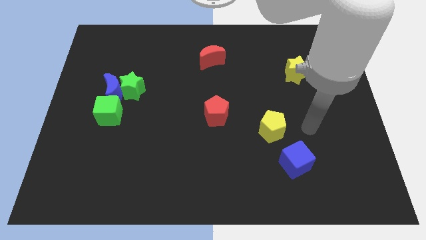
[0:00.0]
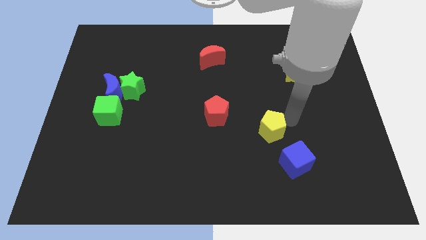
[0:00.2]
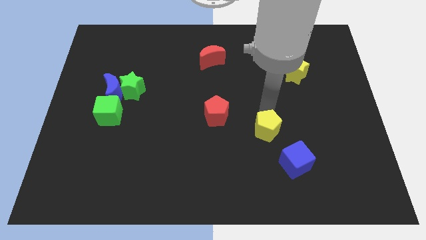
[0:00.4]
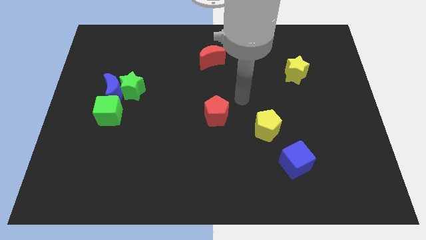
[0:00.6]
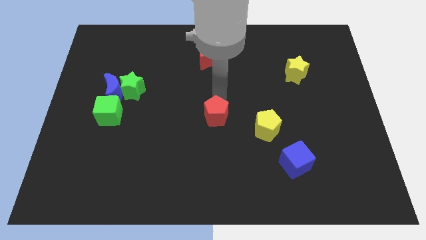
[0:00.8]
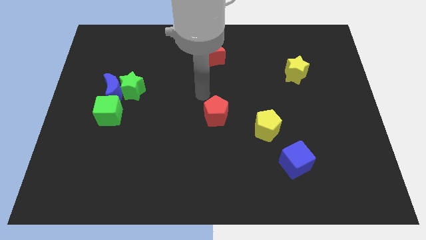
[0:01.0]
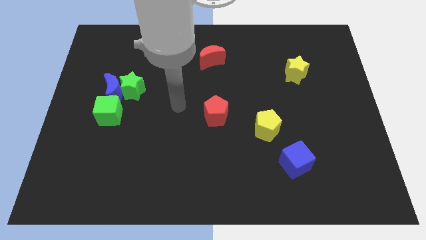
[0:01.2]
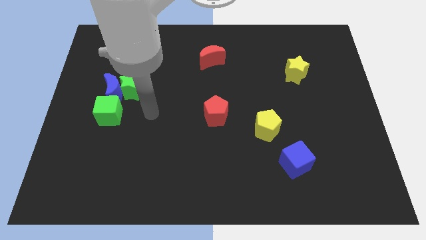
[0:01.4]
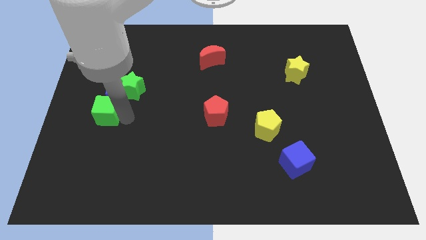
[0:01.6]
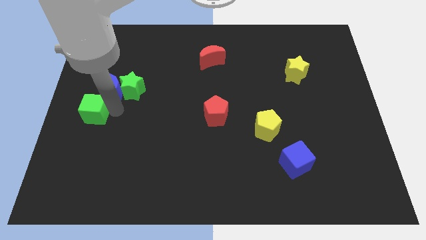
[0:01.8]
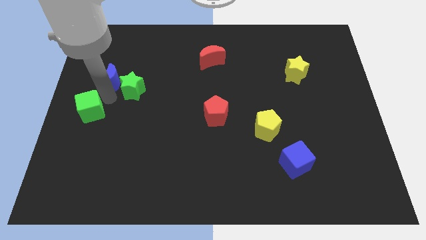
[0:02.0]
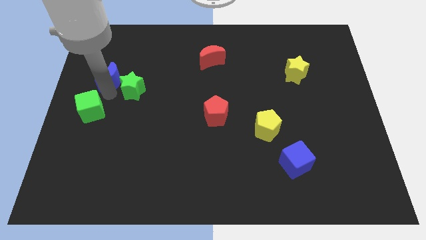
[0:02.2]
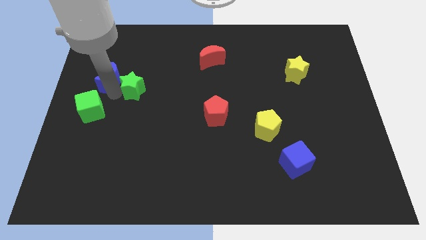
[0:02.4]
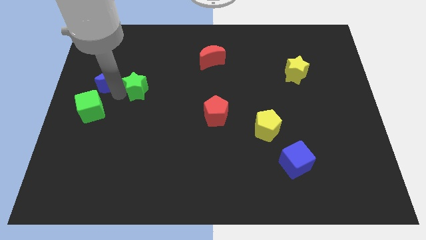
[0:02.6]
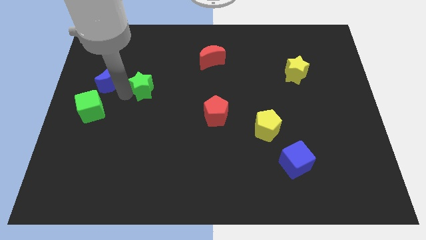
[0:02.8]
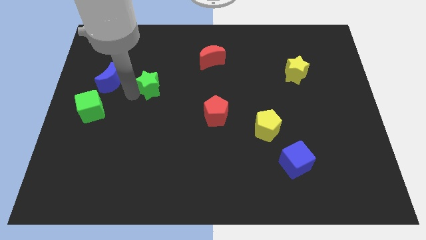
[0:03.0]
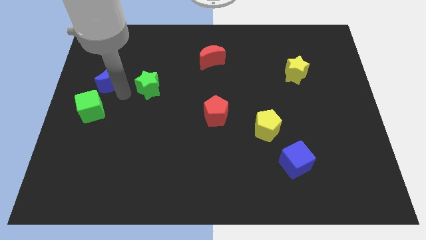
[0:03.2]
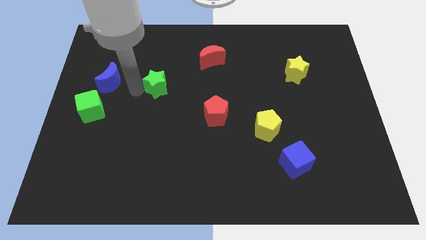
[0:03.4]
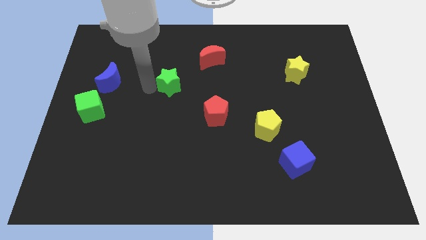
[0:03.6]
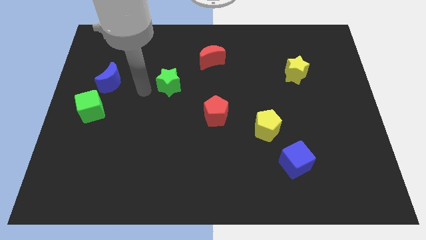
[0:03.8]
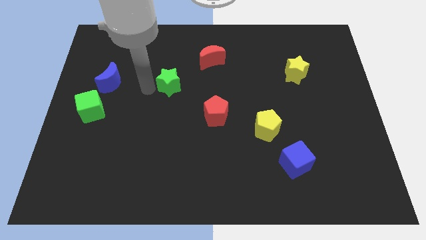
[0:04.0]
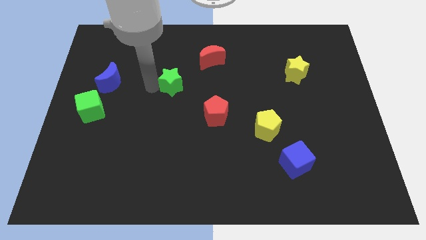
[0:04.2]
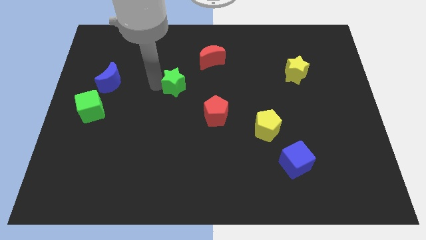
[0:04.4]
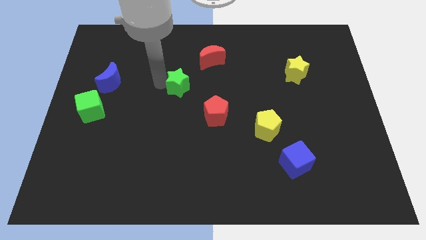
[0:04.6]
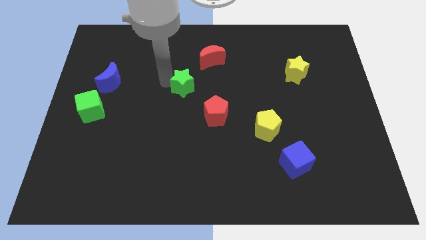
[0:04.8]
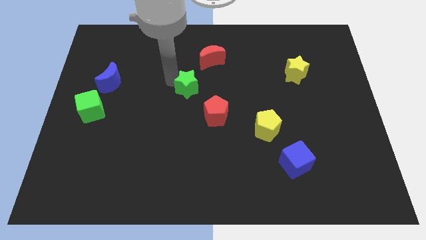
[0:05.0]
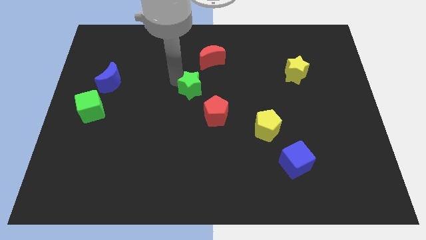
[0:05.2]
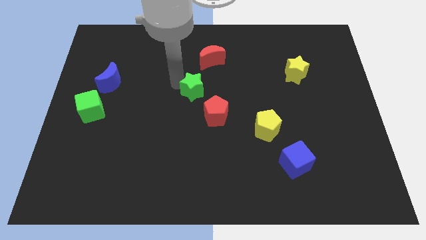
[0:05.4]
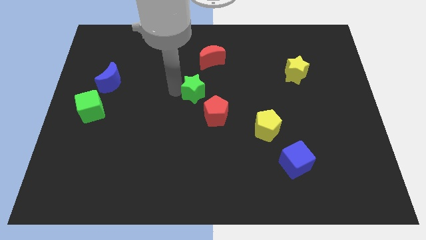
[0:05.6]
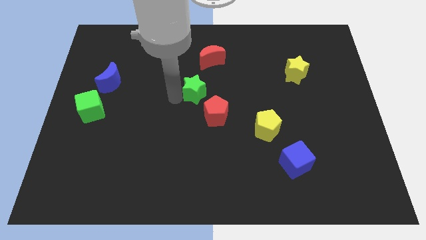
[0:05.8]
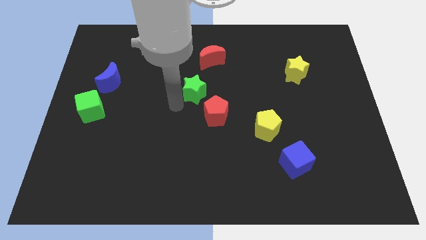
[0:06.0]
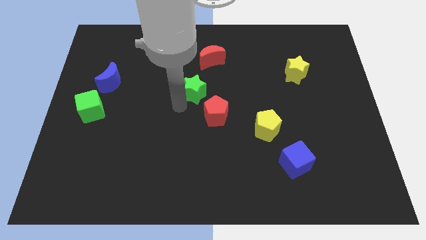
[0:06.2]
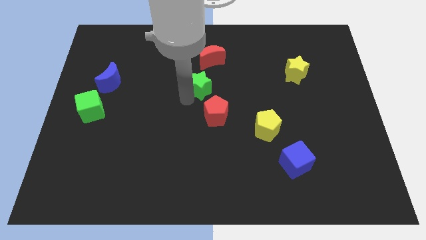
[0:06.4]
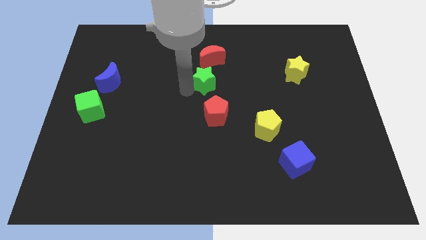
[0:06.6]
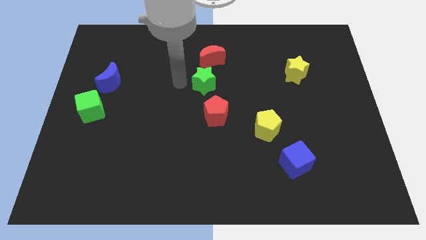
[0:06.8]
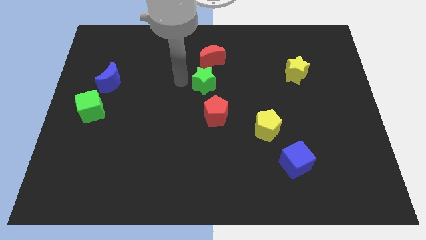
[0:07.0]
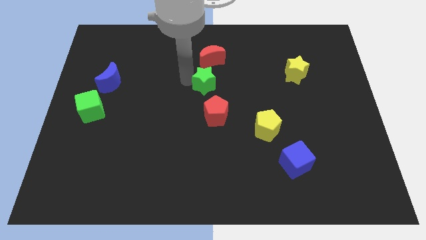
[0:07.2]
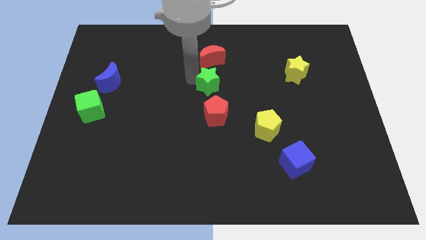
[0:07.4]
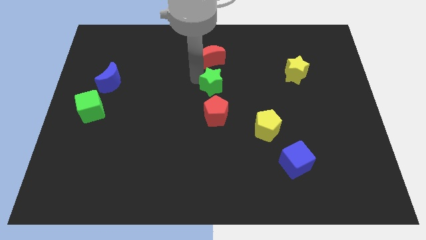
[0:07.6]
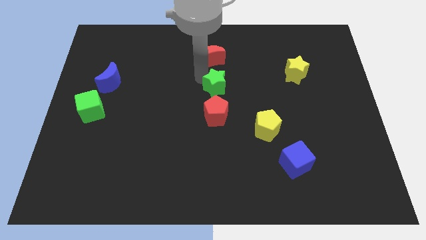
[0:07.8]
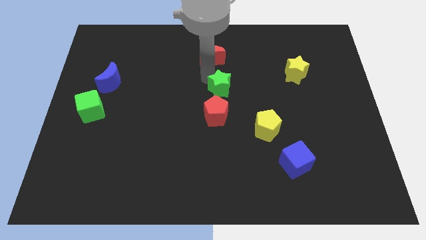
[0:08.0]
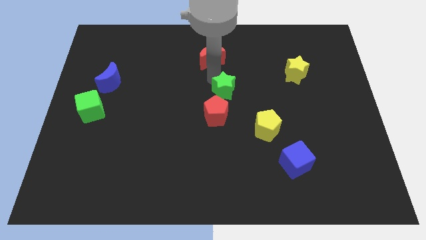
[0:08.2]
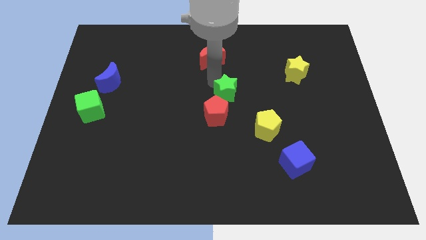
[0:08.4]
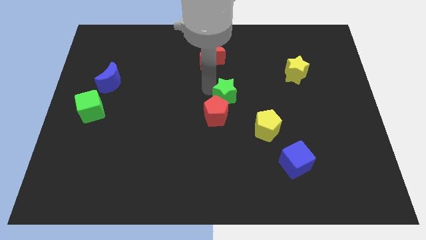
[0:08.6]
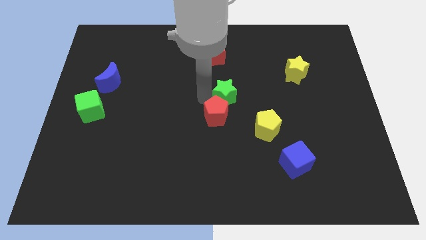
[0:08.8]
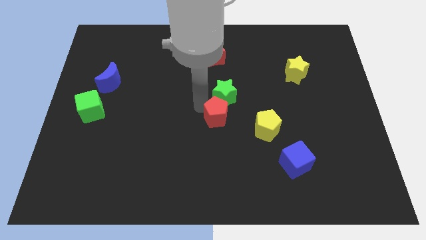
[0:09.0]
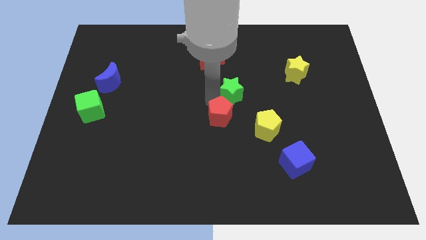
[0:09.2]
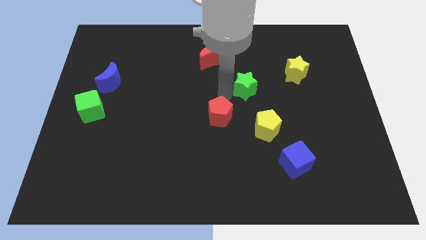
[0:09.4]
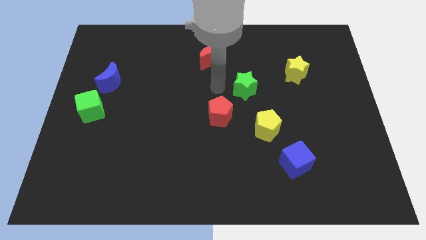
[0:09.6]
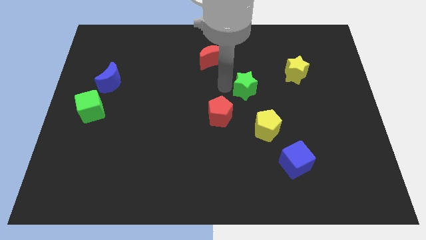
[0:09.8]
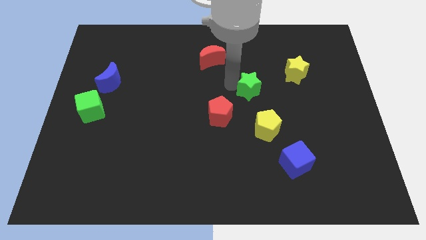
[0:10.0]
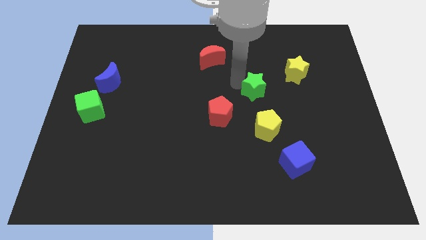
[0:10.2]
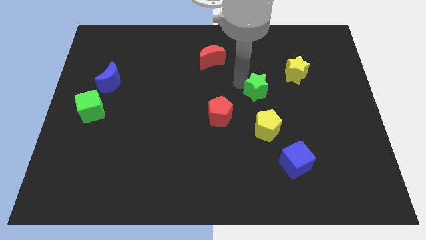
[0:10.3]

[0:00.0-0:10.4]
move the green star to the bottom left of the yellow star

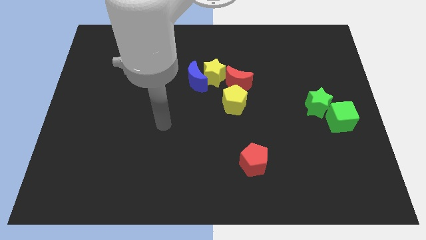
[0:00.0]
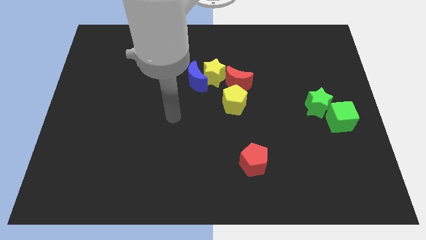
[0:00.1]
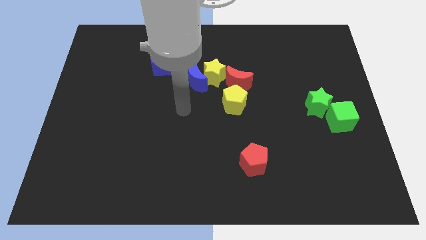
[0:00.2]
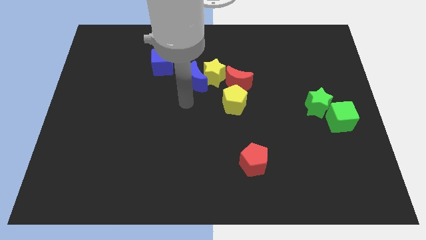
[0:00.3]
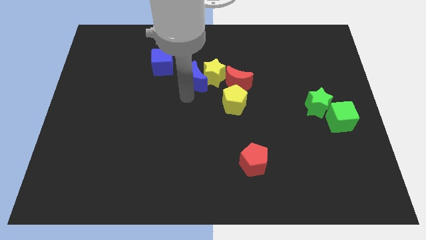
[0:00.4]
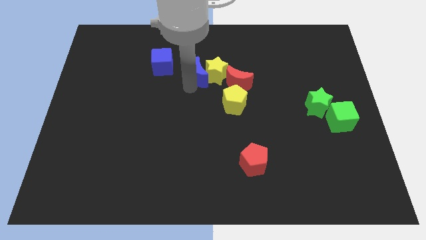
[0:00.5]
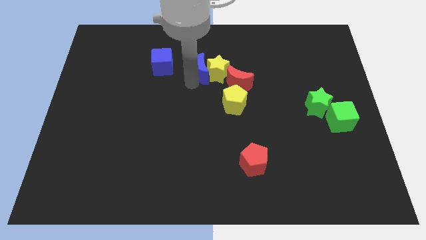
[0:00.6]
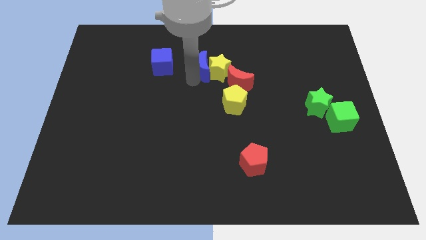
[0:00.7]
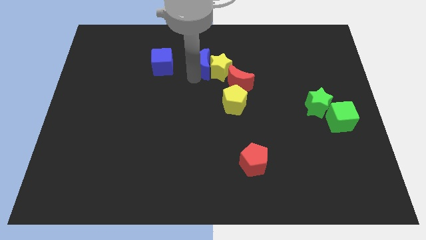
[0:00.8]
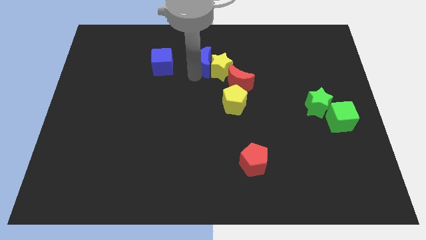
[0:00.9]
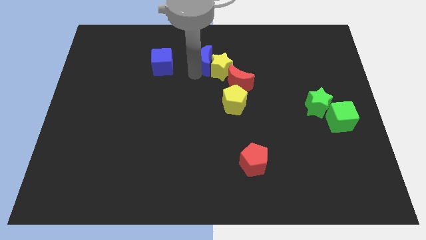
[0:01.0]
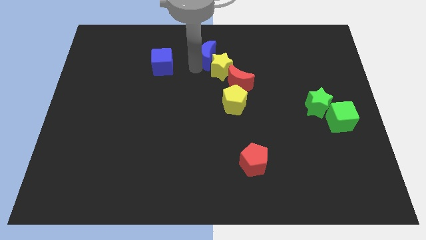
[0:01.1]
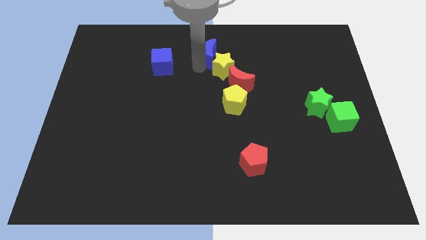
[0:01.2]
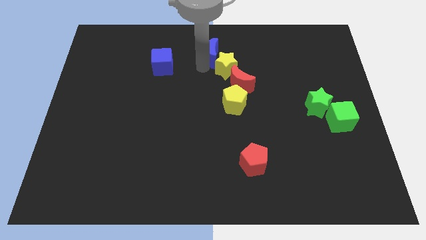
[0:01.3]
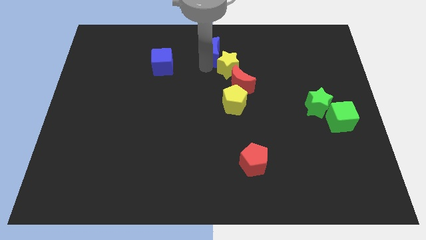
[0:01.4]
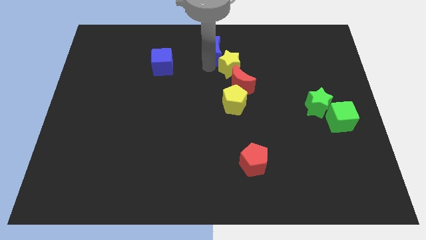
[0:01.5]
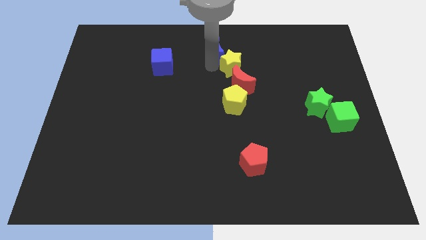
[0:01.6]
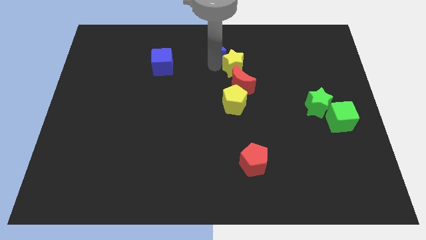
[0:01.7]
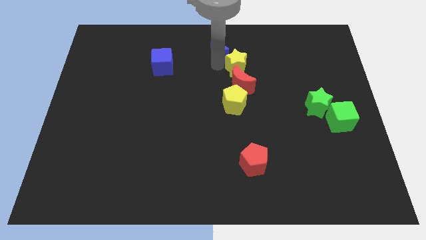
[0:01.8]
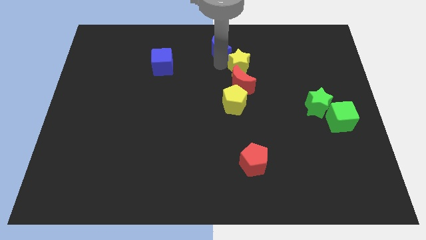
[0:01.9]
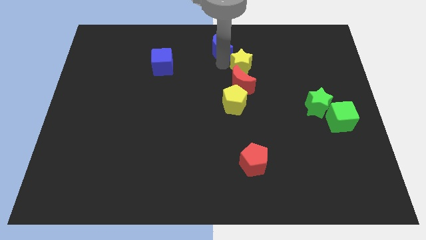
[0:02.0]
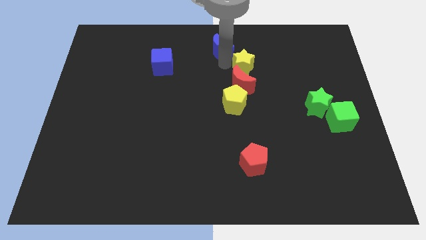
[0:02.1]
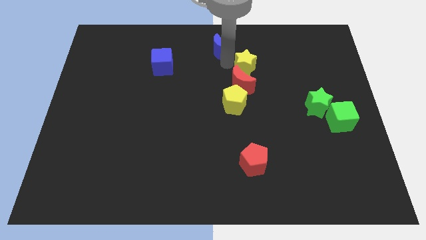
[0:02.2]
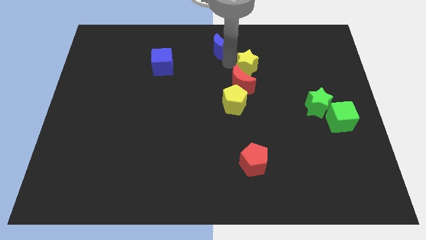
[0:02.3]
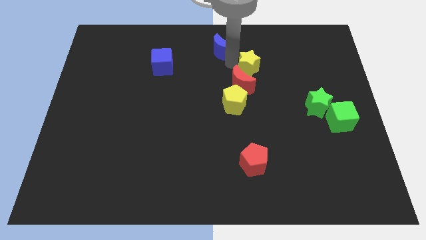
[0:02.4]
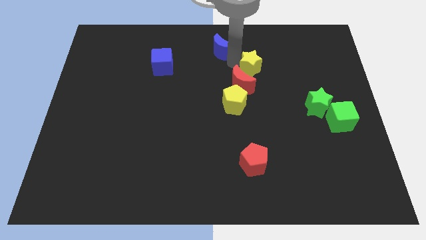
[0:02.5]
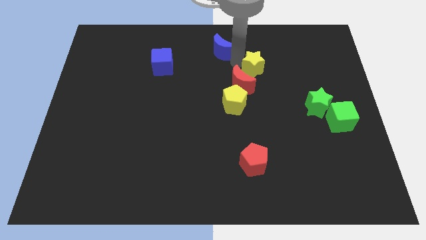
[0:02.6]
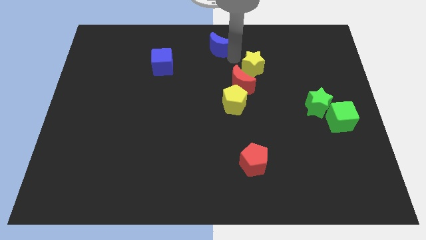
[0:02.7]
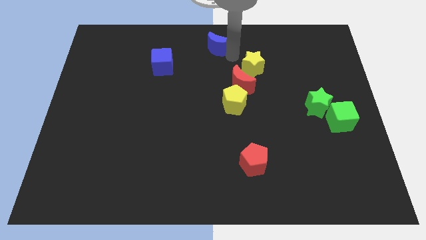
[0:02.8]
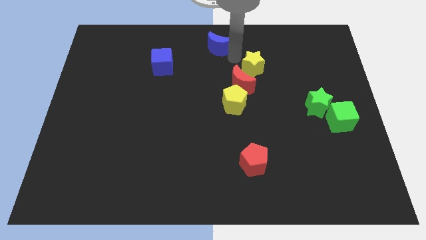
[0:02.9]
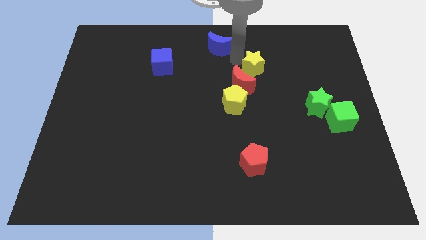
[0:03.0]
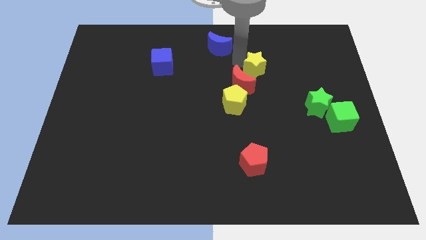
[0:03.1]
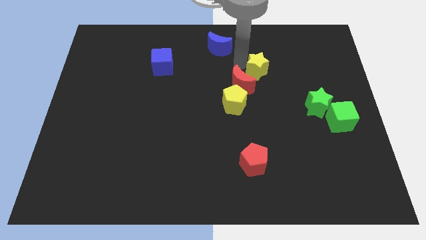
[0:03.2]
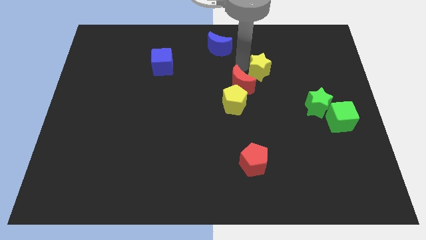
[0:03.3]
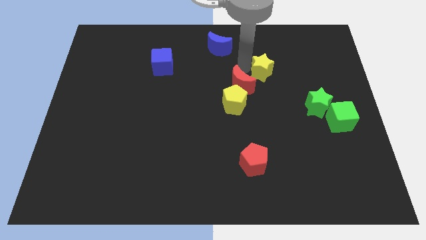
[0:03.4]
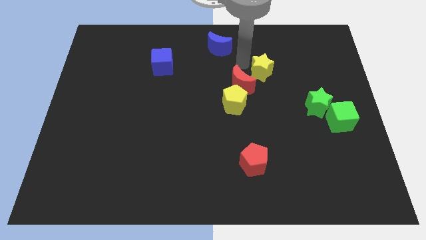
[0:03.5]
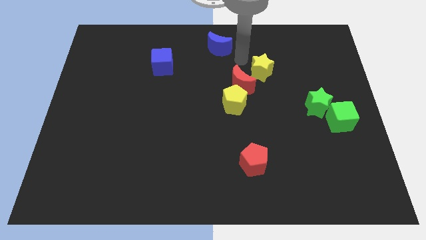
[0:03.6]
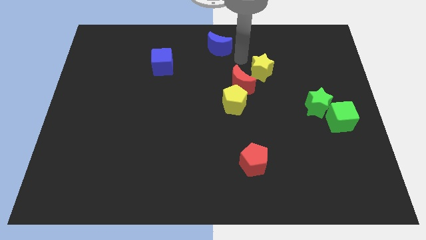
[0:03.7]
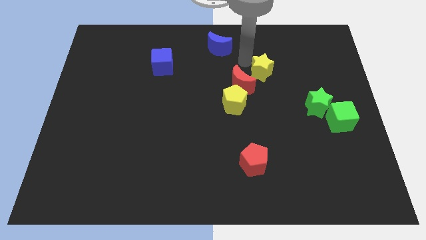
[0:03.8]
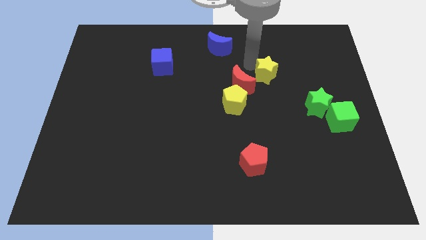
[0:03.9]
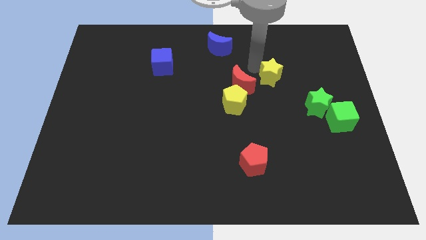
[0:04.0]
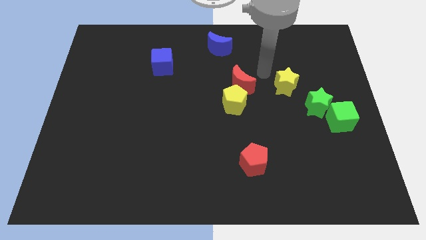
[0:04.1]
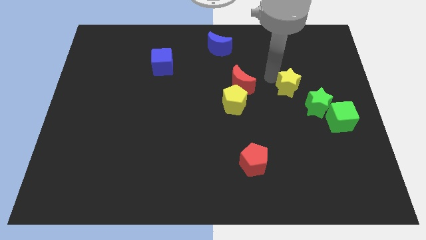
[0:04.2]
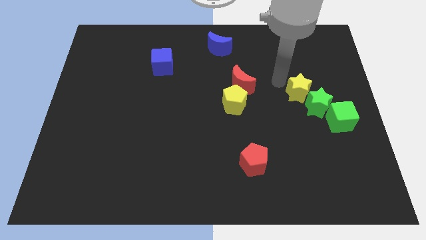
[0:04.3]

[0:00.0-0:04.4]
put the yellow star to the top left of the green cube
